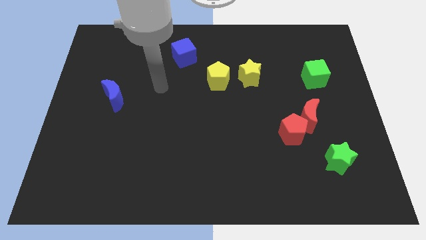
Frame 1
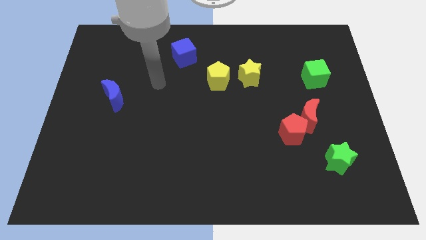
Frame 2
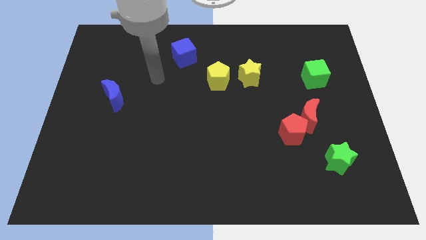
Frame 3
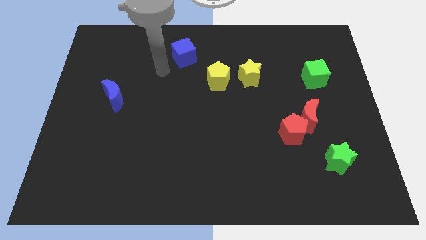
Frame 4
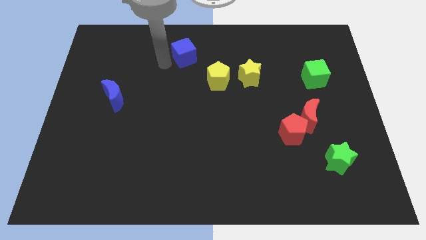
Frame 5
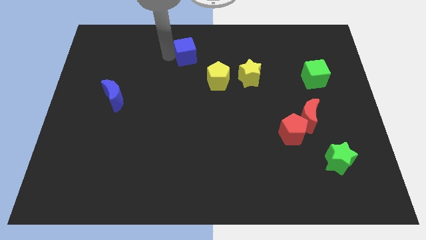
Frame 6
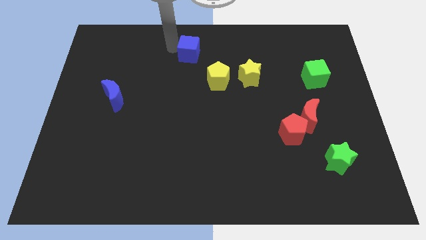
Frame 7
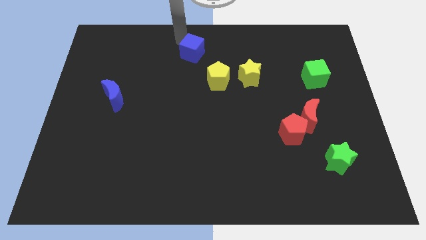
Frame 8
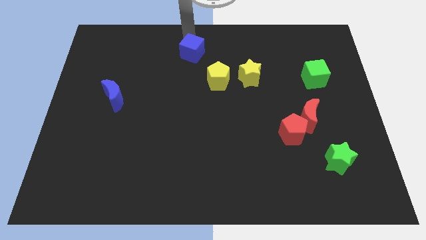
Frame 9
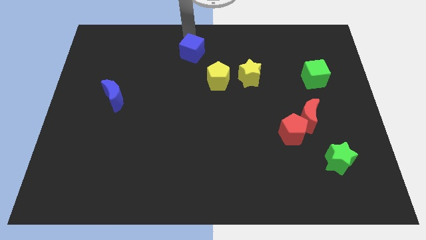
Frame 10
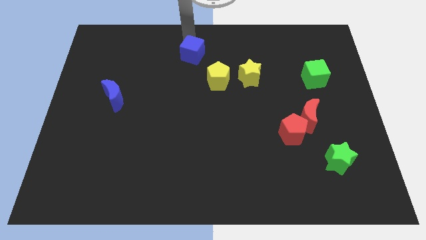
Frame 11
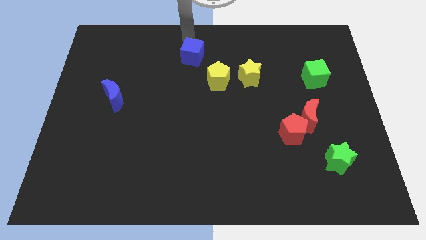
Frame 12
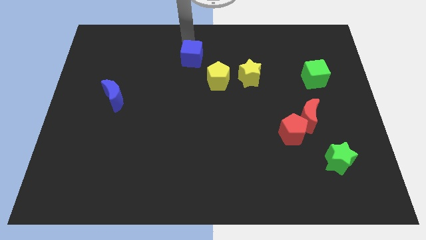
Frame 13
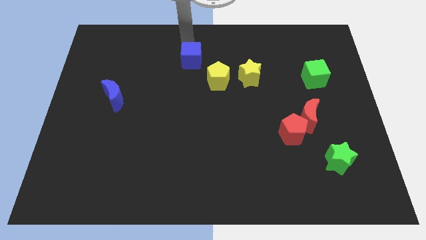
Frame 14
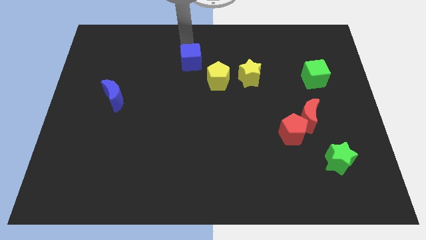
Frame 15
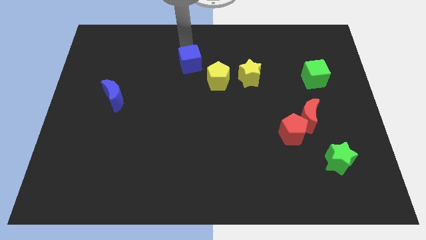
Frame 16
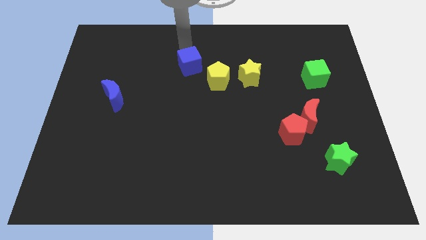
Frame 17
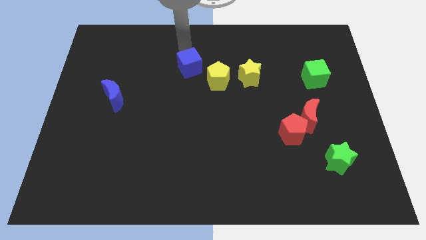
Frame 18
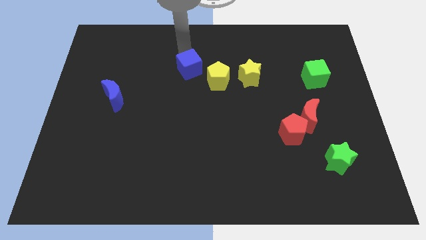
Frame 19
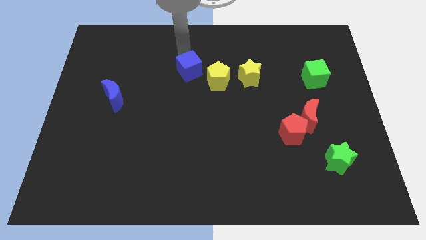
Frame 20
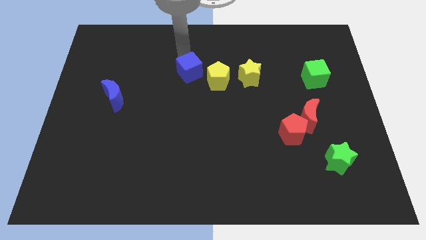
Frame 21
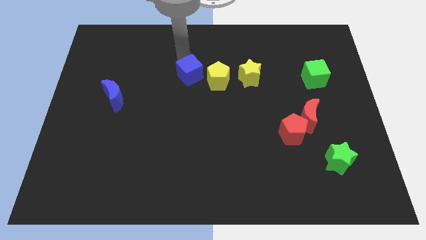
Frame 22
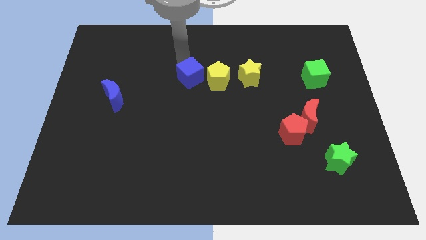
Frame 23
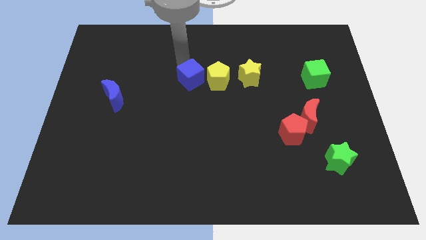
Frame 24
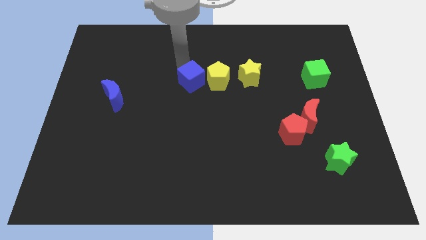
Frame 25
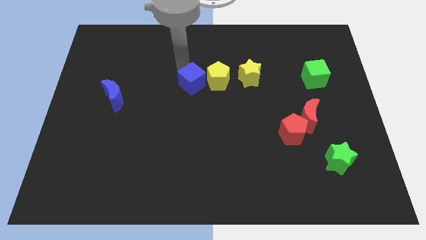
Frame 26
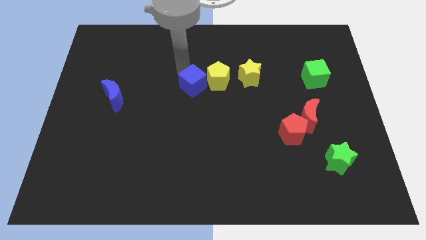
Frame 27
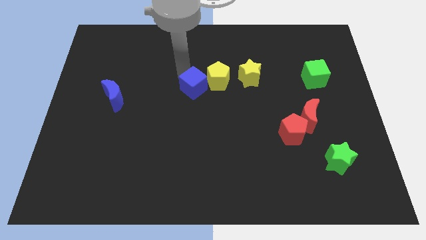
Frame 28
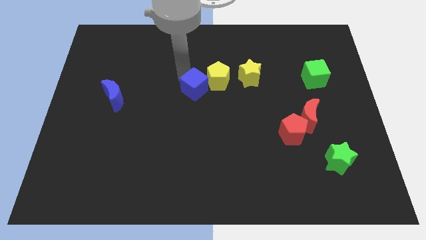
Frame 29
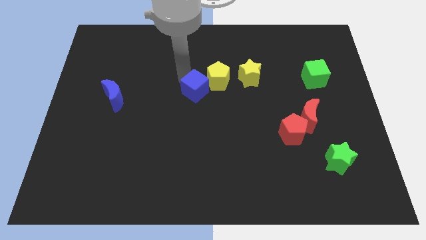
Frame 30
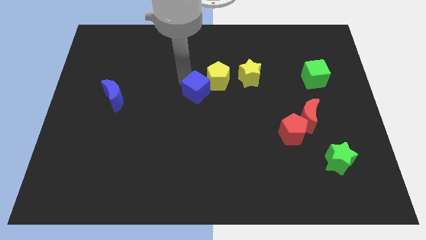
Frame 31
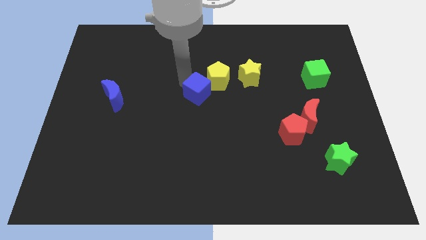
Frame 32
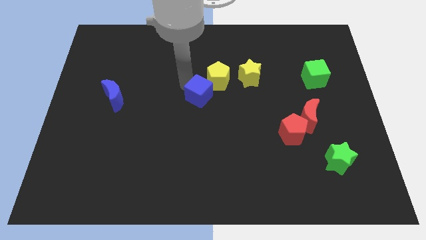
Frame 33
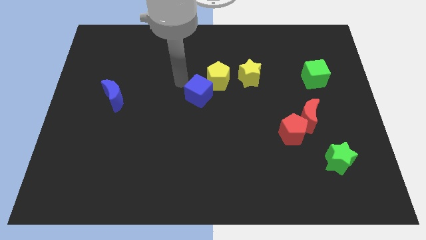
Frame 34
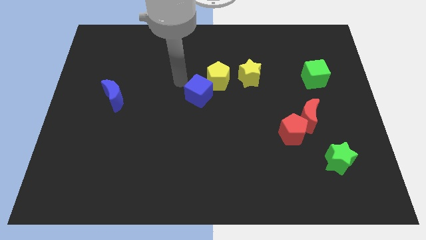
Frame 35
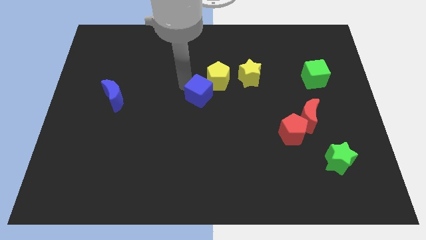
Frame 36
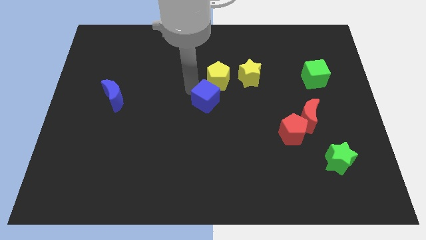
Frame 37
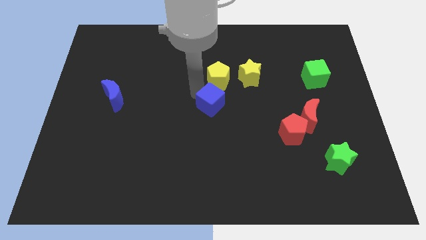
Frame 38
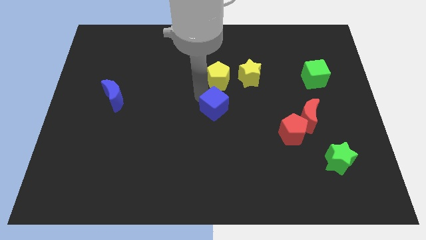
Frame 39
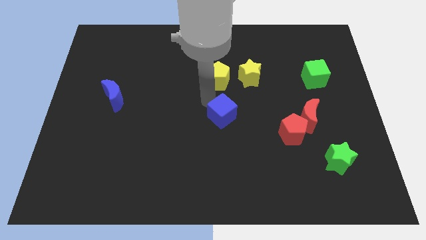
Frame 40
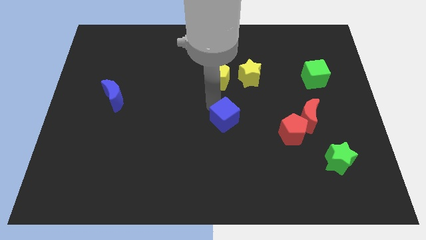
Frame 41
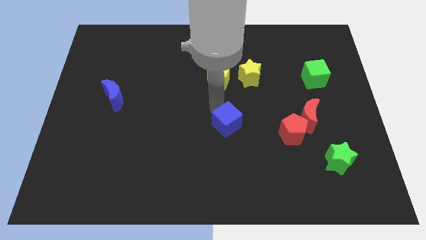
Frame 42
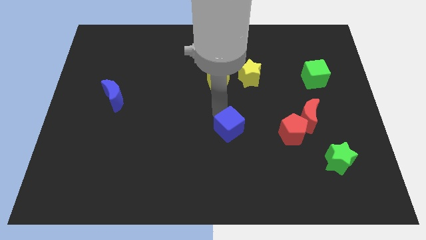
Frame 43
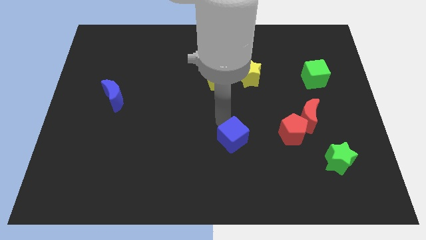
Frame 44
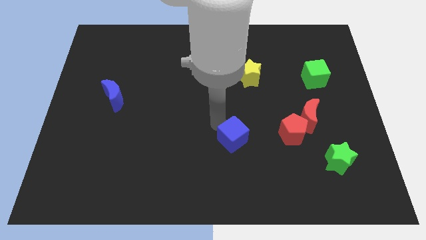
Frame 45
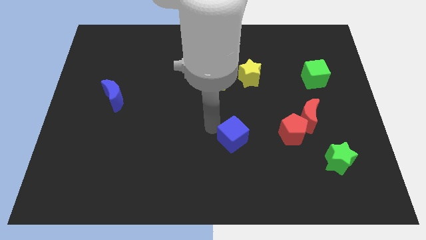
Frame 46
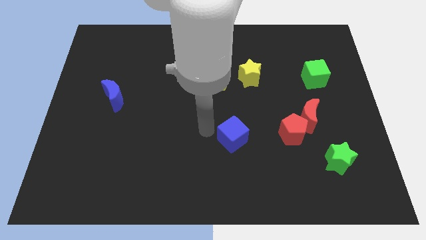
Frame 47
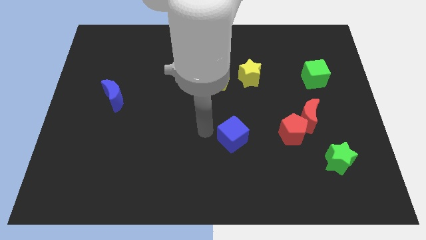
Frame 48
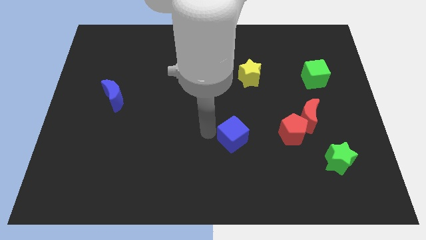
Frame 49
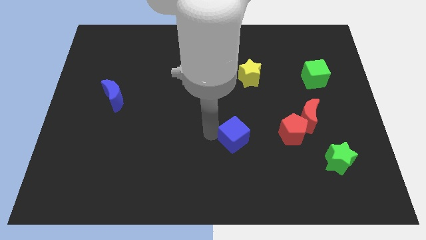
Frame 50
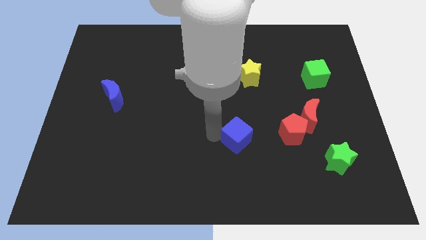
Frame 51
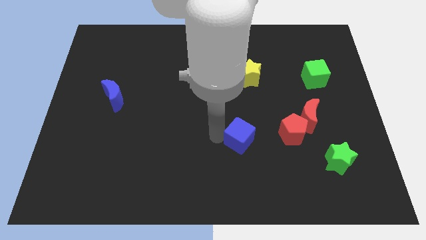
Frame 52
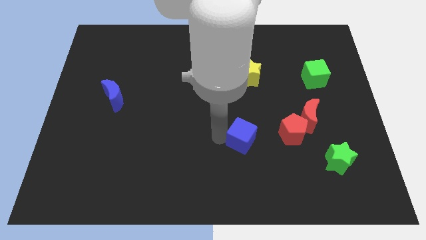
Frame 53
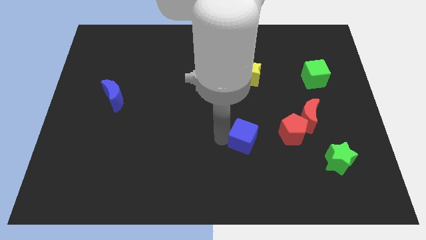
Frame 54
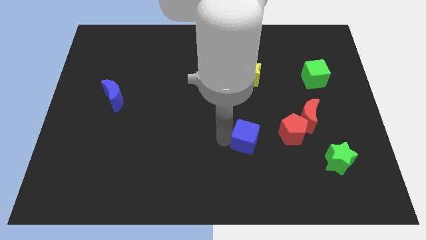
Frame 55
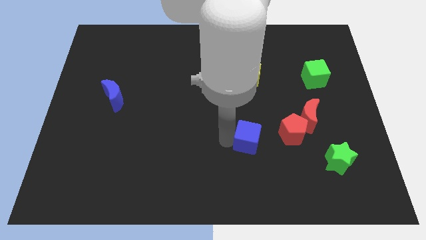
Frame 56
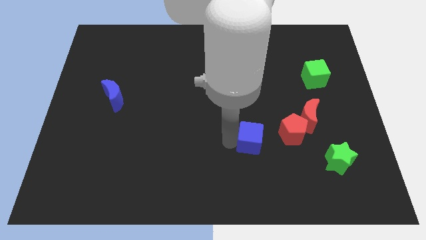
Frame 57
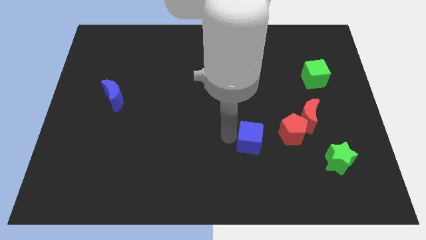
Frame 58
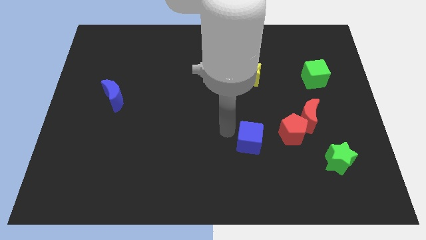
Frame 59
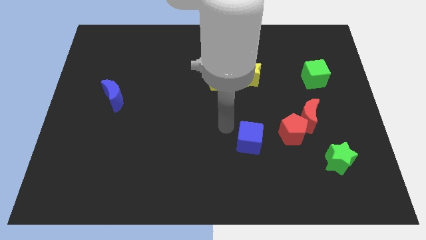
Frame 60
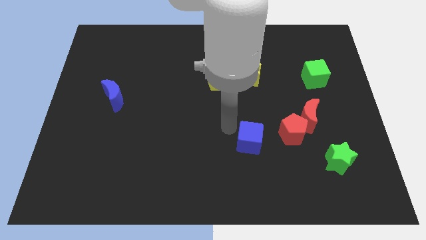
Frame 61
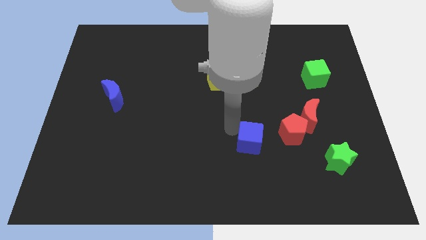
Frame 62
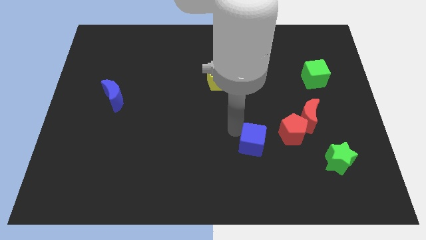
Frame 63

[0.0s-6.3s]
slide the blue cube diagonally down and to the left of the red pentagon

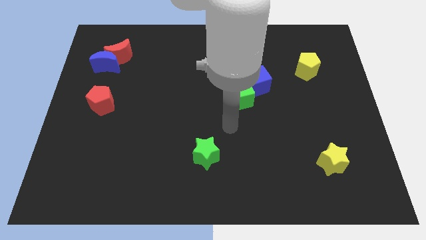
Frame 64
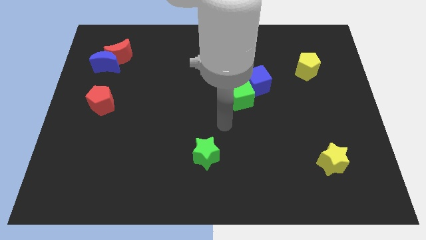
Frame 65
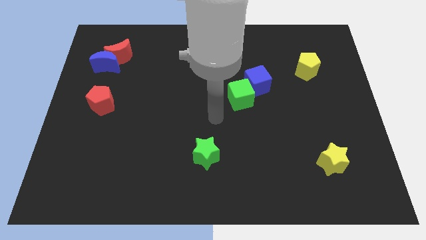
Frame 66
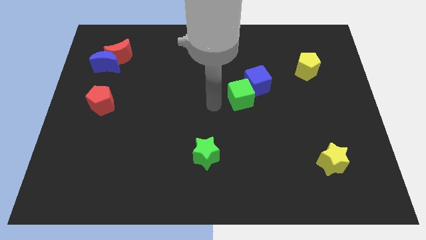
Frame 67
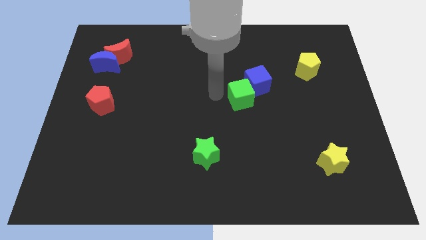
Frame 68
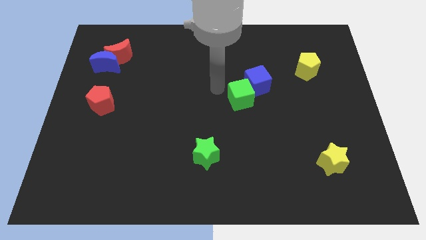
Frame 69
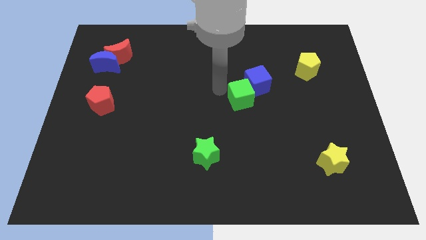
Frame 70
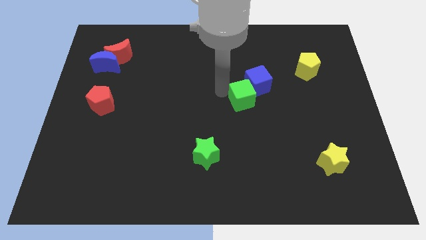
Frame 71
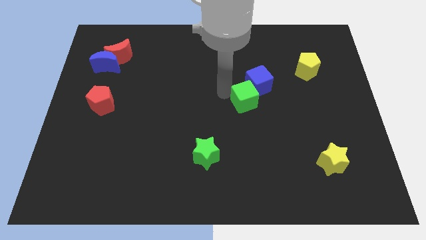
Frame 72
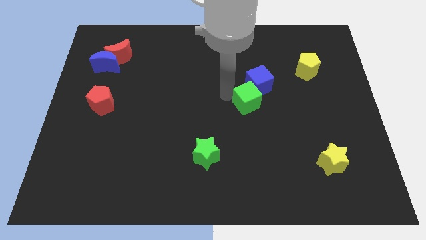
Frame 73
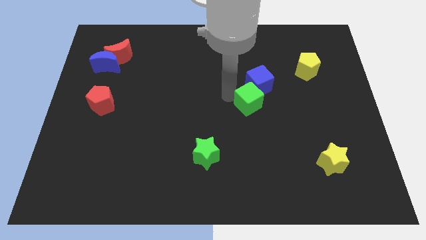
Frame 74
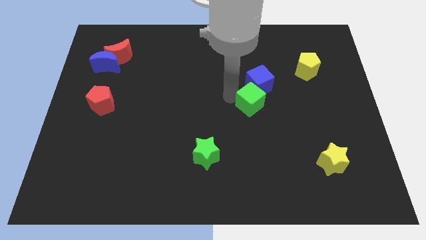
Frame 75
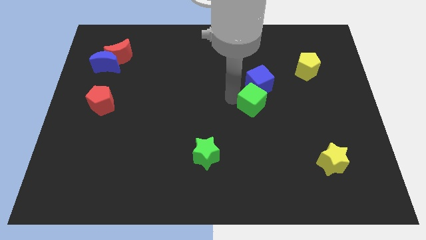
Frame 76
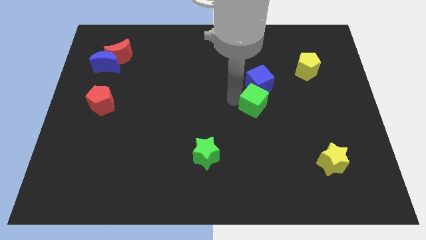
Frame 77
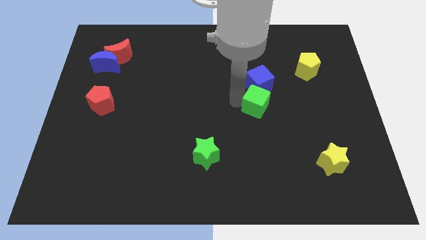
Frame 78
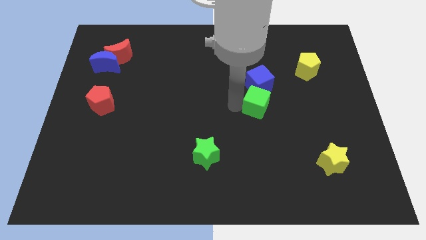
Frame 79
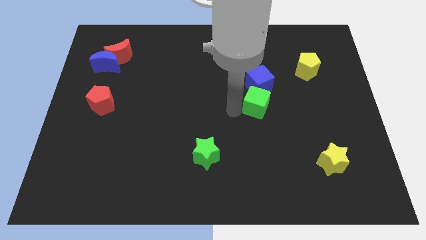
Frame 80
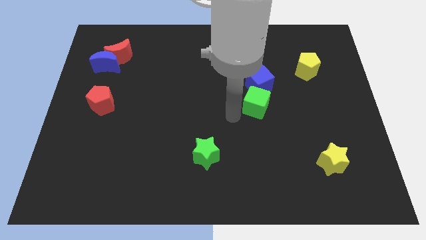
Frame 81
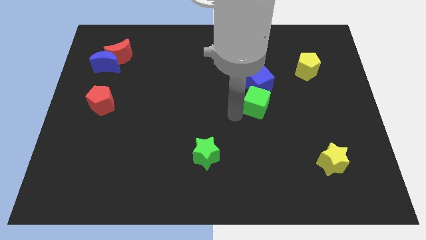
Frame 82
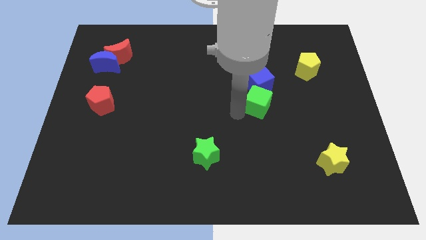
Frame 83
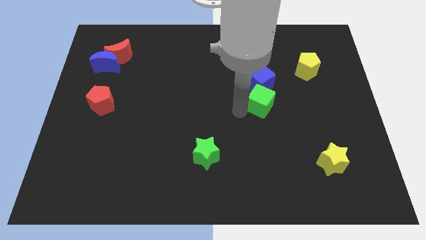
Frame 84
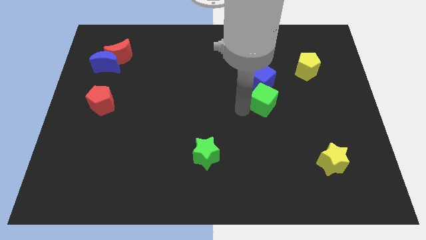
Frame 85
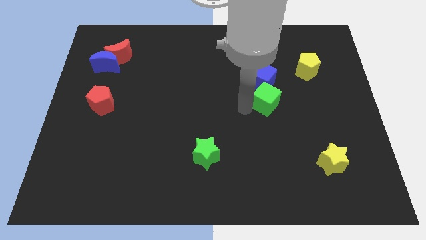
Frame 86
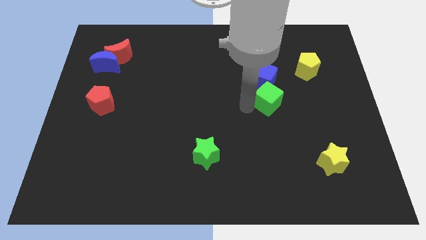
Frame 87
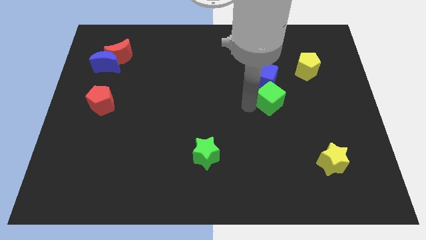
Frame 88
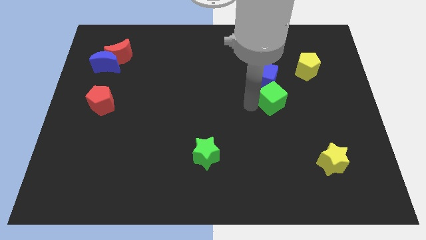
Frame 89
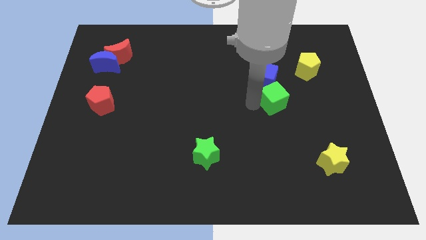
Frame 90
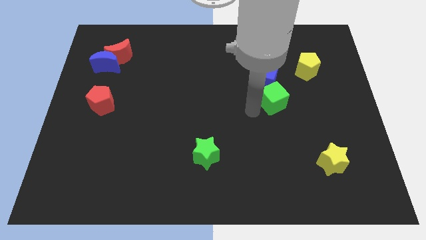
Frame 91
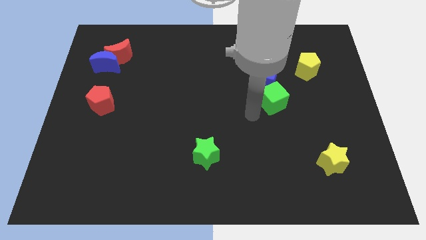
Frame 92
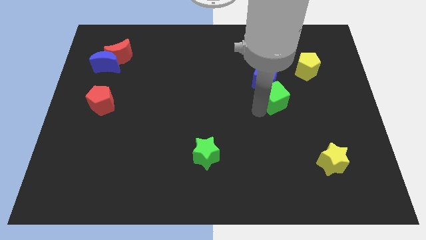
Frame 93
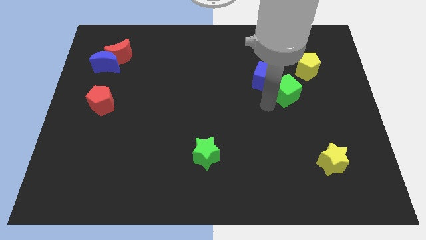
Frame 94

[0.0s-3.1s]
slide the green cube to the right of the blue cube
